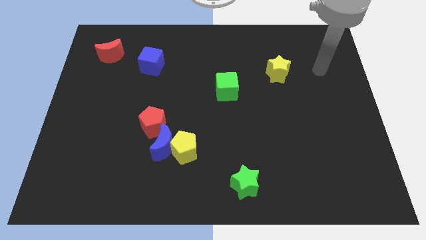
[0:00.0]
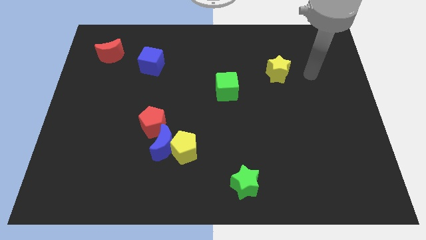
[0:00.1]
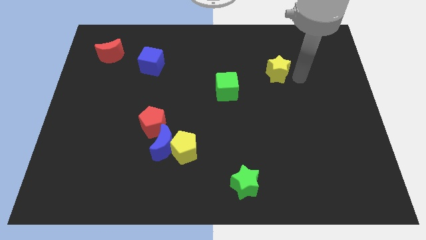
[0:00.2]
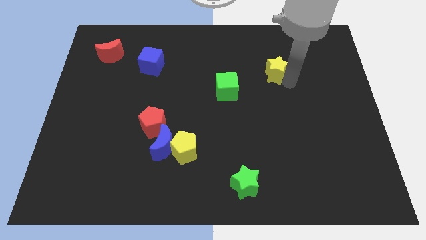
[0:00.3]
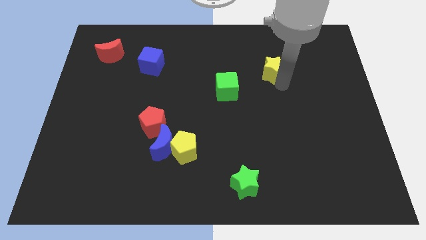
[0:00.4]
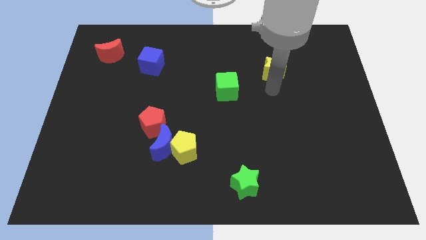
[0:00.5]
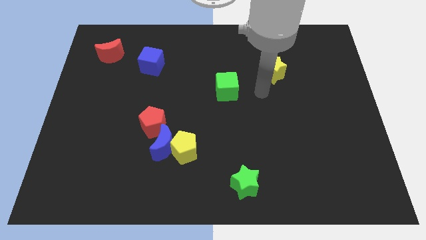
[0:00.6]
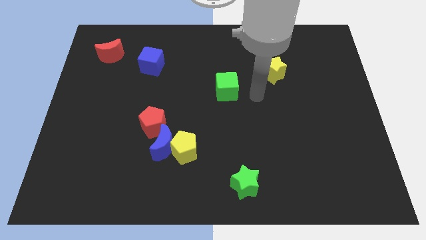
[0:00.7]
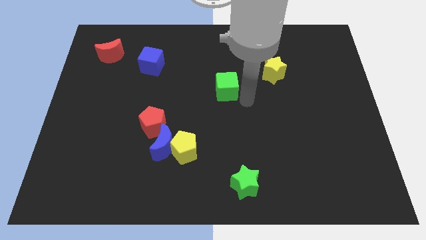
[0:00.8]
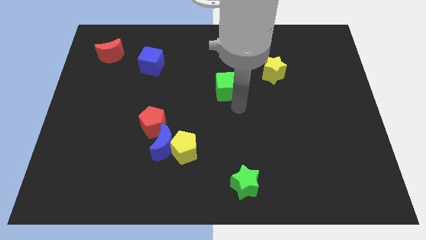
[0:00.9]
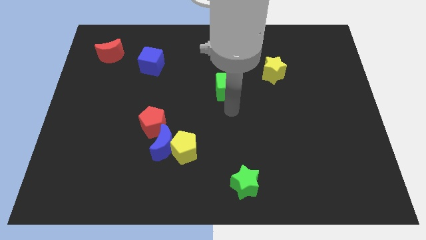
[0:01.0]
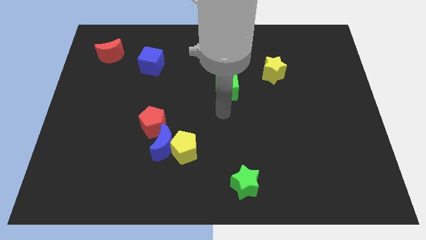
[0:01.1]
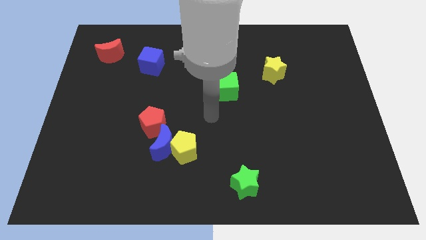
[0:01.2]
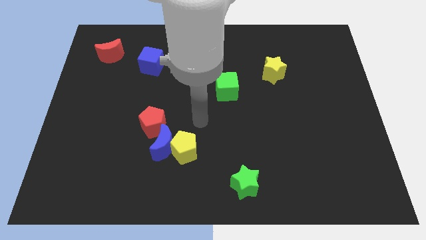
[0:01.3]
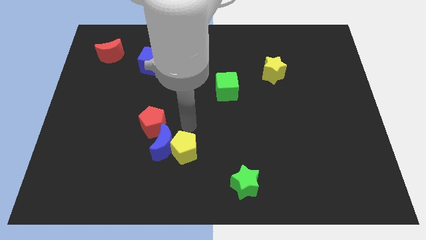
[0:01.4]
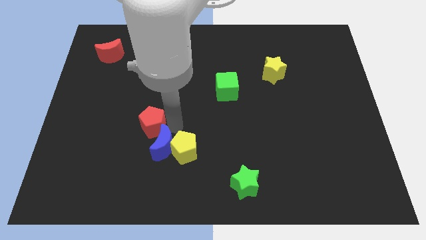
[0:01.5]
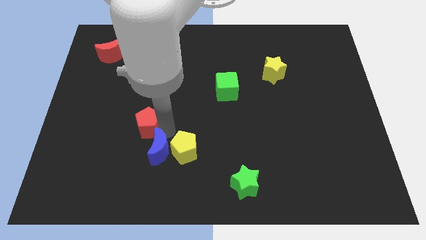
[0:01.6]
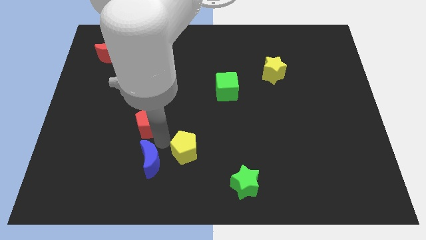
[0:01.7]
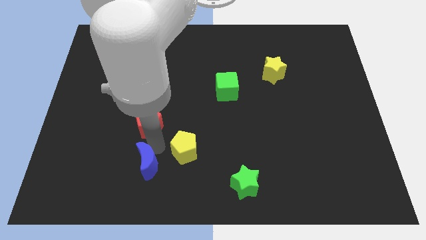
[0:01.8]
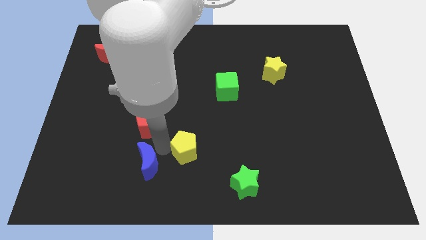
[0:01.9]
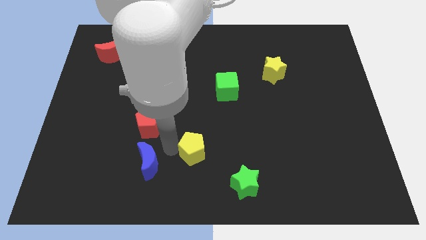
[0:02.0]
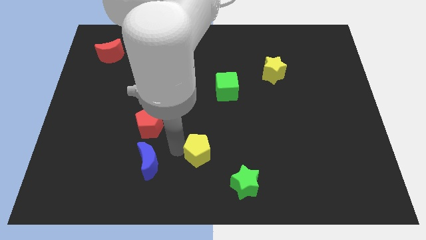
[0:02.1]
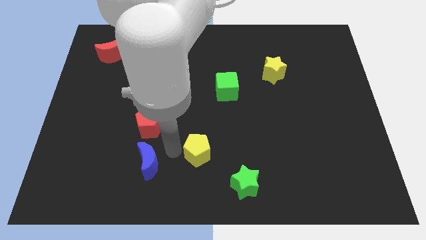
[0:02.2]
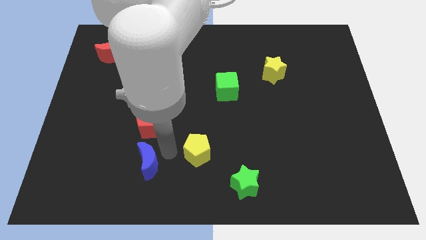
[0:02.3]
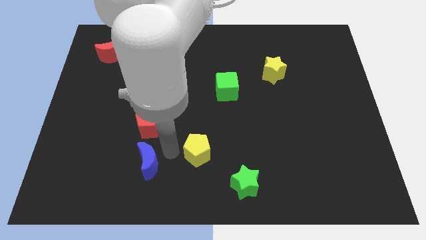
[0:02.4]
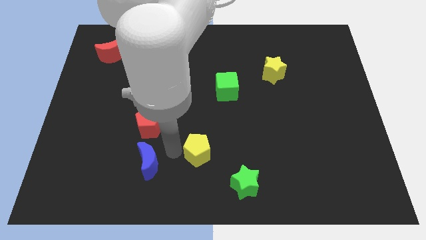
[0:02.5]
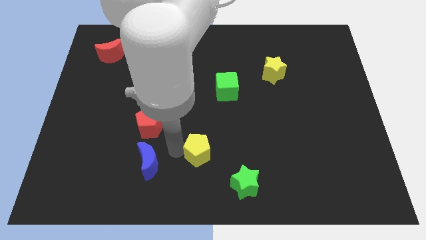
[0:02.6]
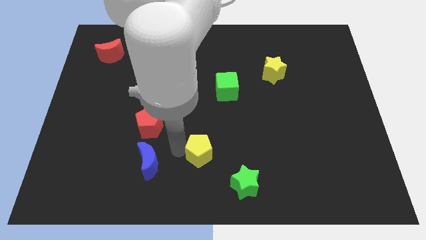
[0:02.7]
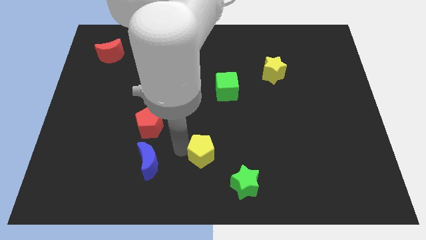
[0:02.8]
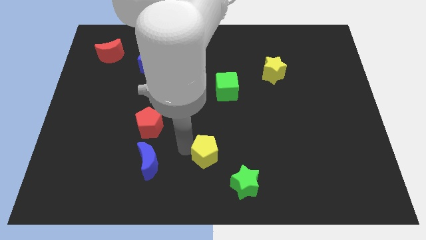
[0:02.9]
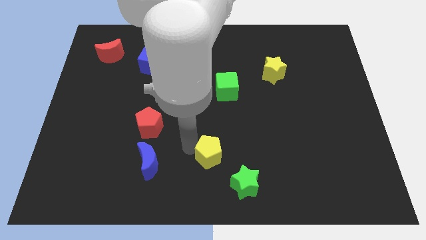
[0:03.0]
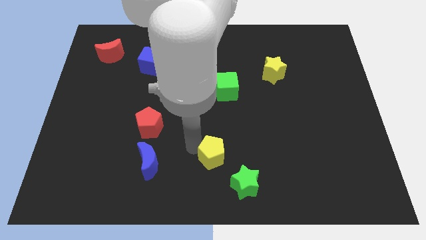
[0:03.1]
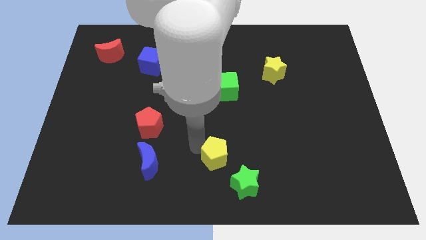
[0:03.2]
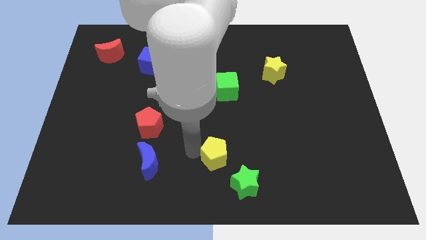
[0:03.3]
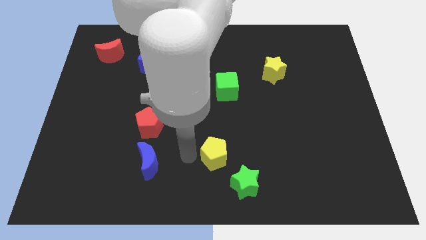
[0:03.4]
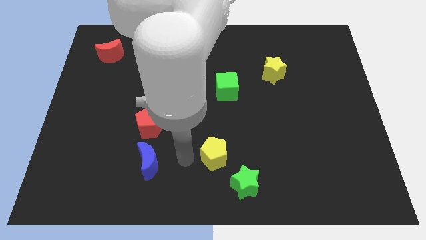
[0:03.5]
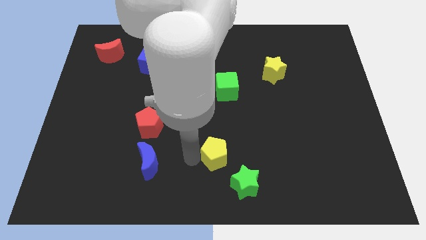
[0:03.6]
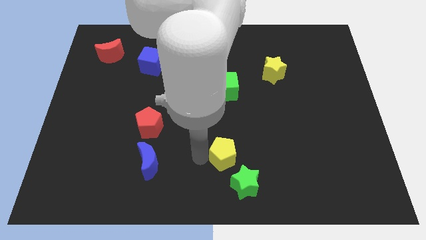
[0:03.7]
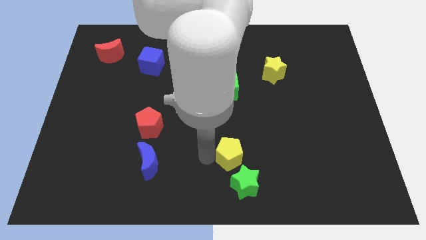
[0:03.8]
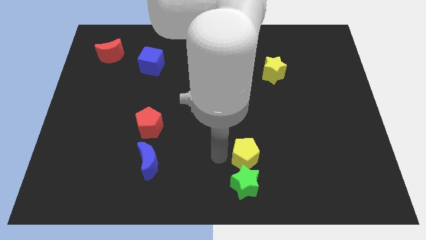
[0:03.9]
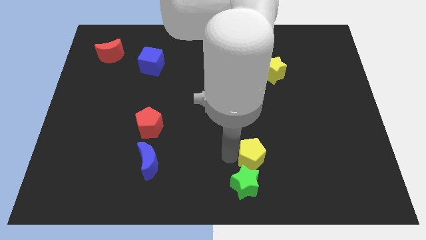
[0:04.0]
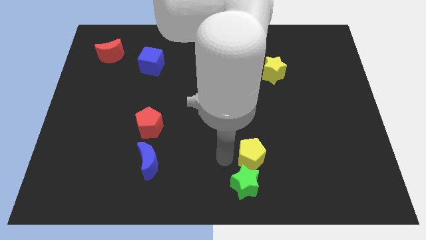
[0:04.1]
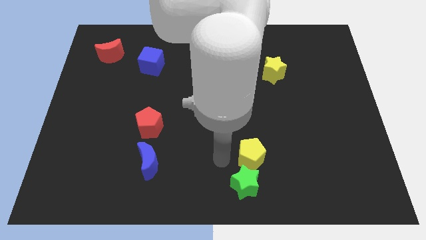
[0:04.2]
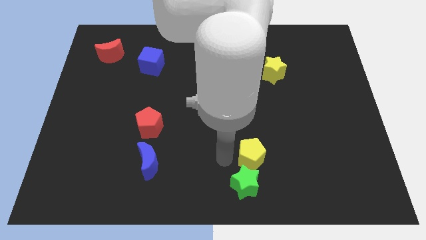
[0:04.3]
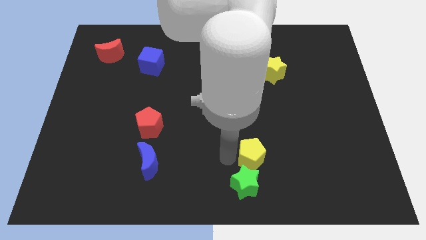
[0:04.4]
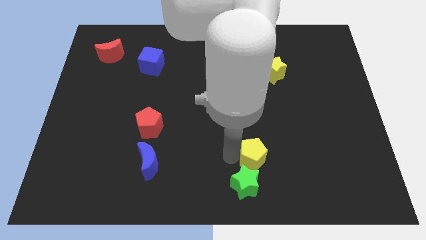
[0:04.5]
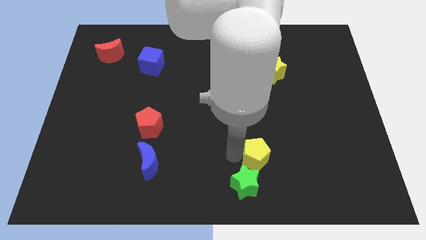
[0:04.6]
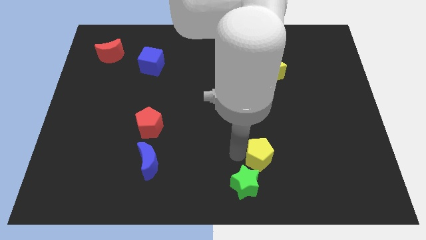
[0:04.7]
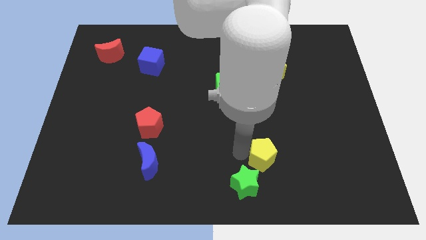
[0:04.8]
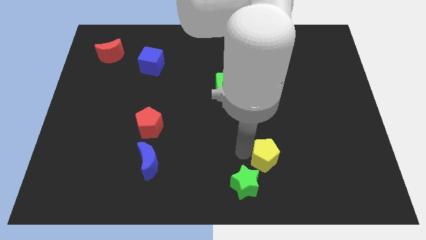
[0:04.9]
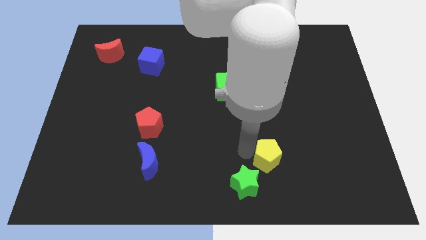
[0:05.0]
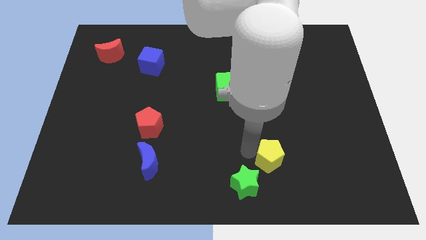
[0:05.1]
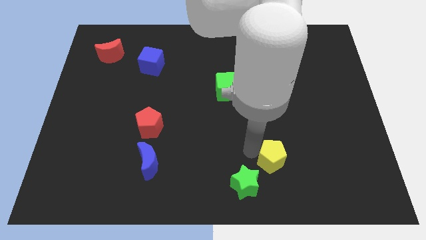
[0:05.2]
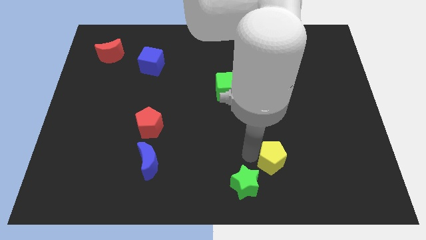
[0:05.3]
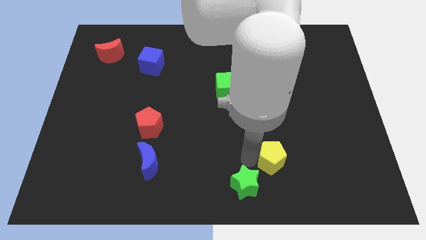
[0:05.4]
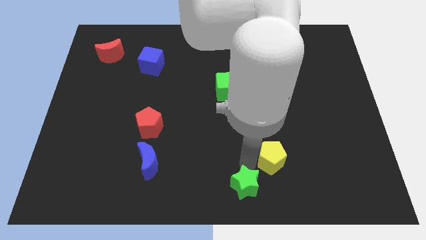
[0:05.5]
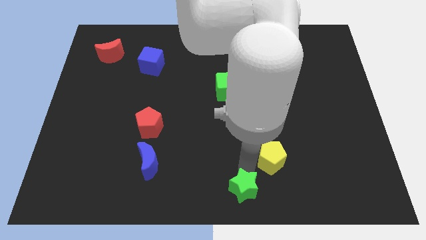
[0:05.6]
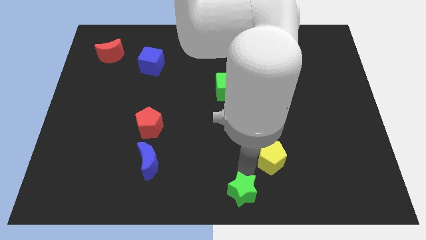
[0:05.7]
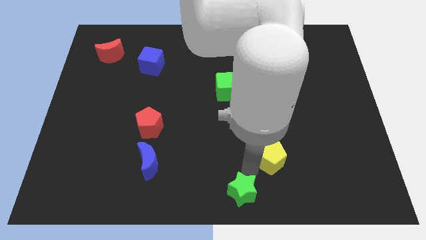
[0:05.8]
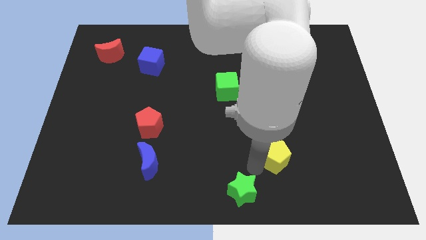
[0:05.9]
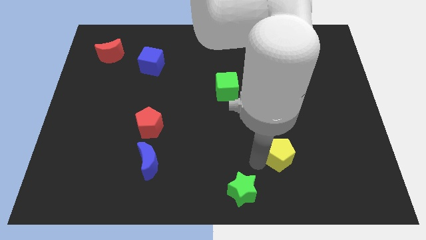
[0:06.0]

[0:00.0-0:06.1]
slide the yellow pentagon to the right

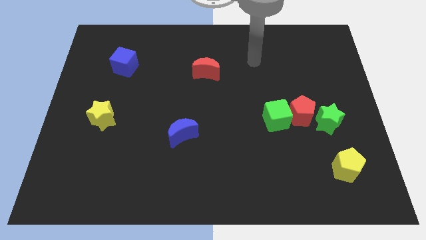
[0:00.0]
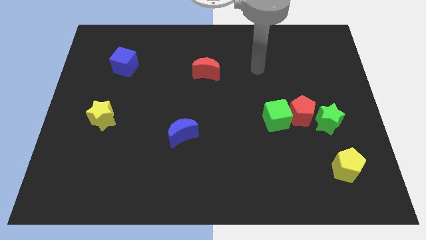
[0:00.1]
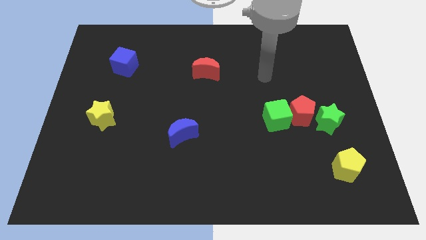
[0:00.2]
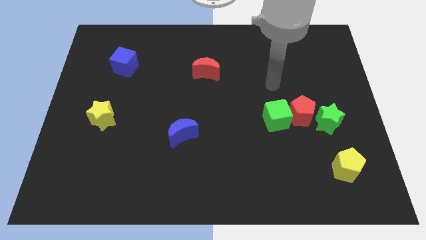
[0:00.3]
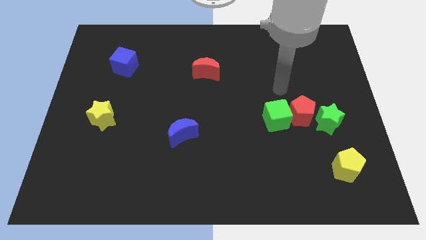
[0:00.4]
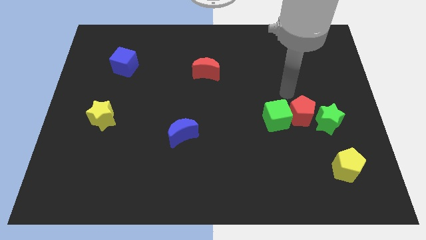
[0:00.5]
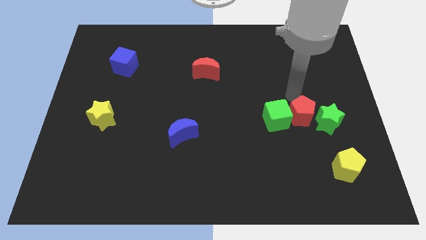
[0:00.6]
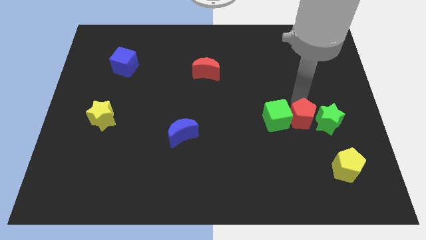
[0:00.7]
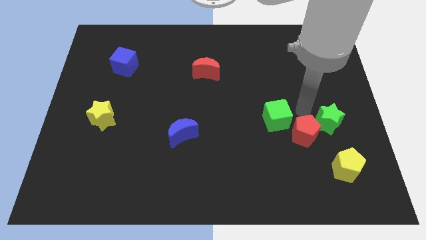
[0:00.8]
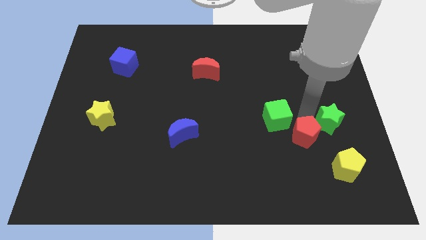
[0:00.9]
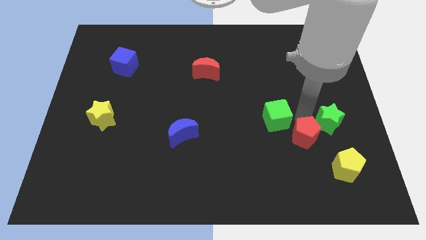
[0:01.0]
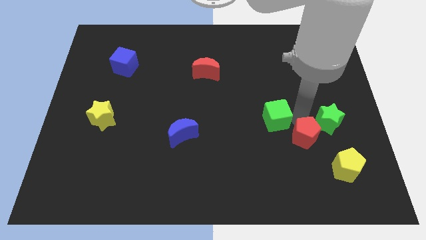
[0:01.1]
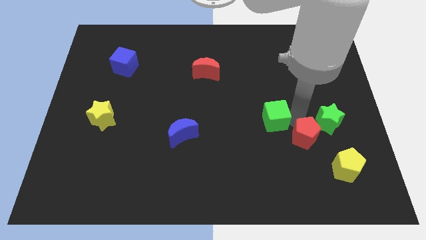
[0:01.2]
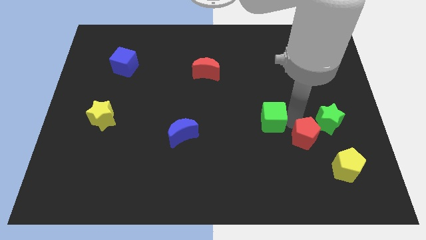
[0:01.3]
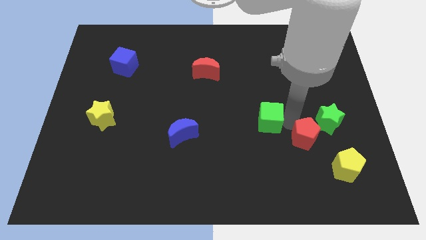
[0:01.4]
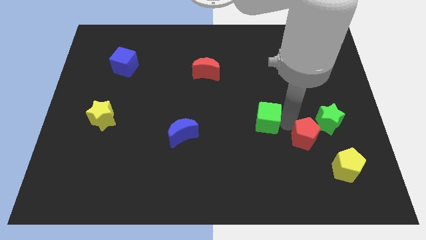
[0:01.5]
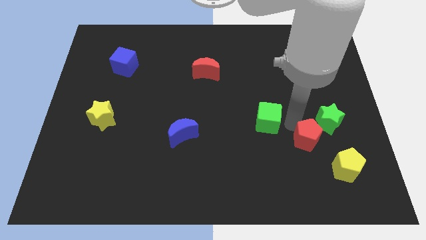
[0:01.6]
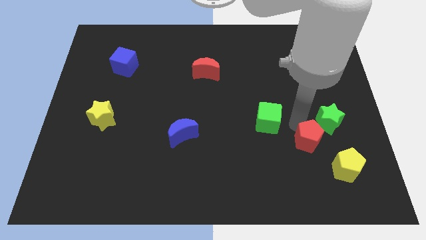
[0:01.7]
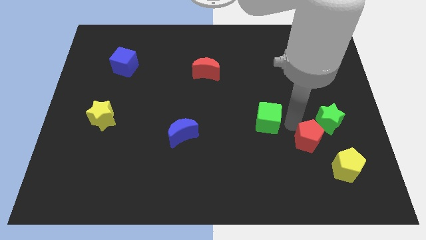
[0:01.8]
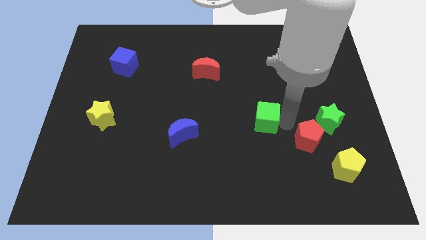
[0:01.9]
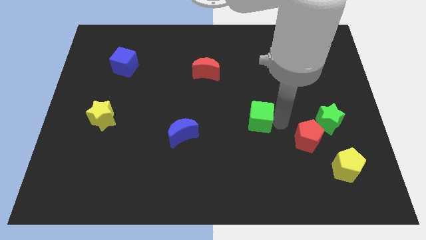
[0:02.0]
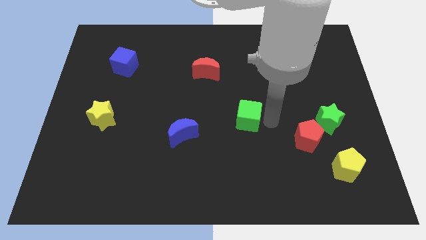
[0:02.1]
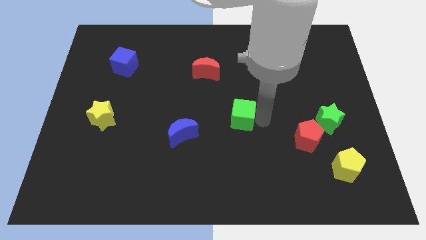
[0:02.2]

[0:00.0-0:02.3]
move the green cube to the left a bit
